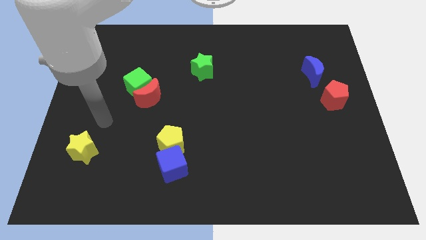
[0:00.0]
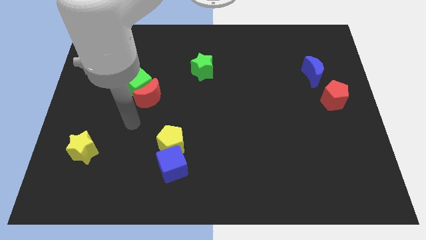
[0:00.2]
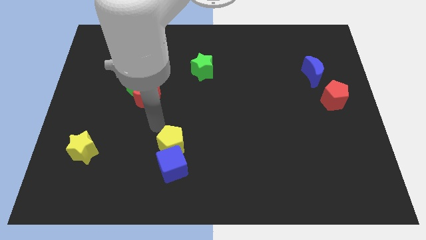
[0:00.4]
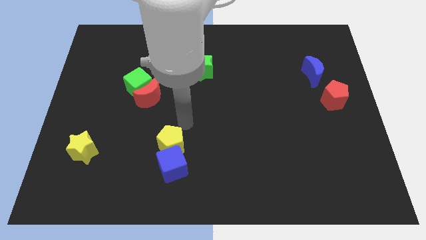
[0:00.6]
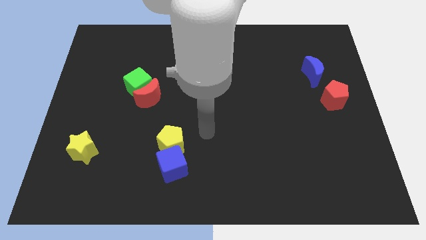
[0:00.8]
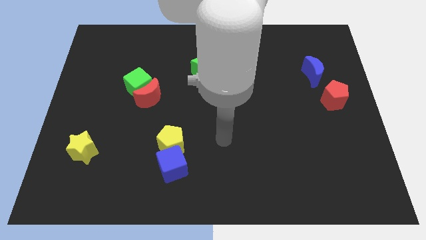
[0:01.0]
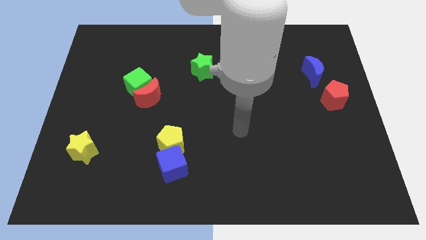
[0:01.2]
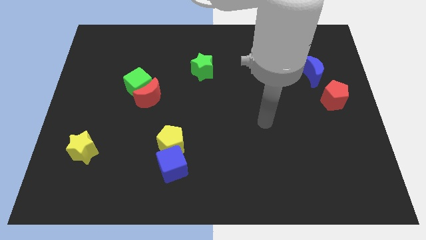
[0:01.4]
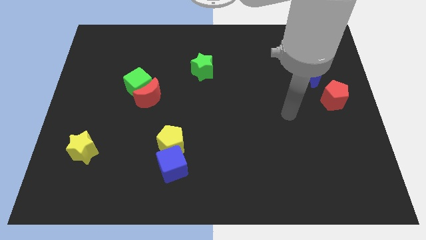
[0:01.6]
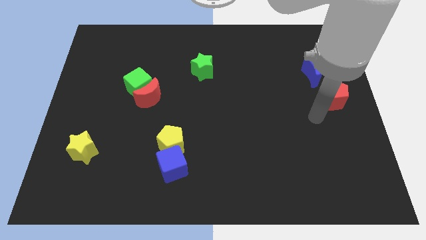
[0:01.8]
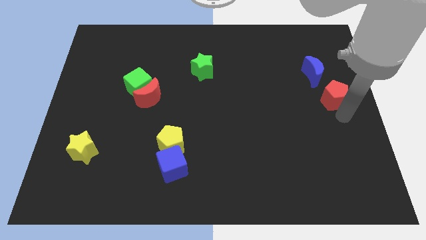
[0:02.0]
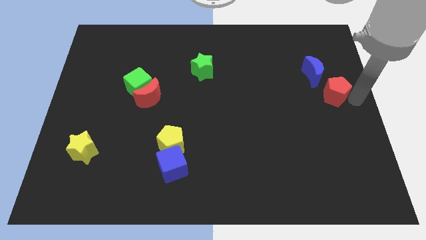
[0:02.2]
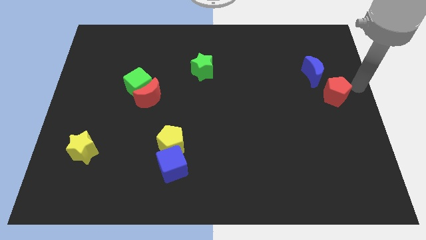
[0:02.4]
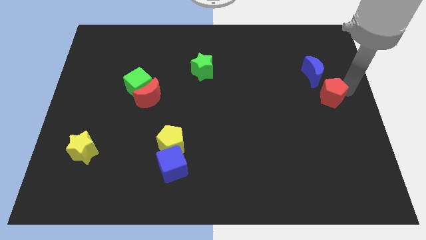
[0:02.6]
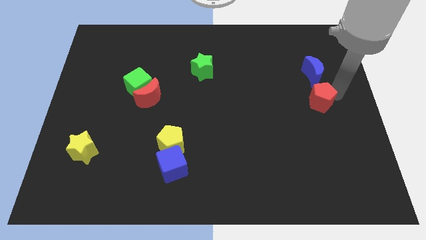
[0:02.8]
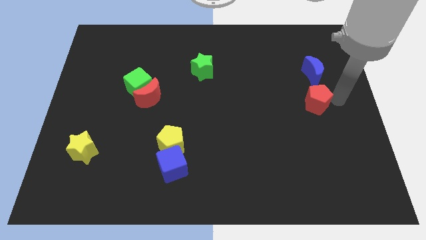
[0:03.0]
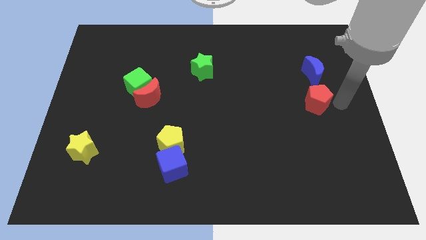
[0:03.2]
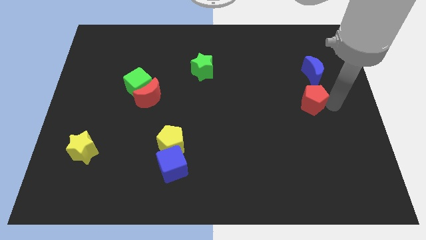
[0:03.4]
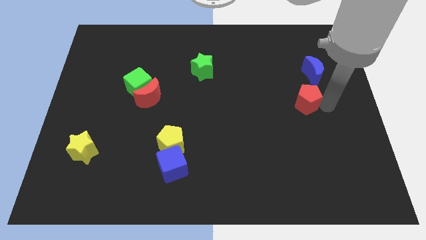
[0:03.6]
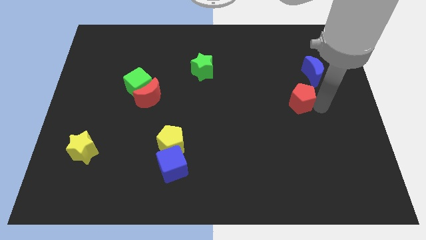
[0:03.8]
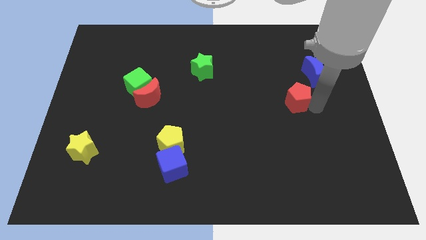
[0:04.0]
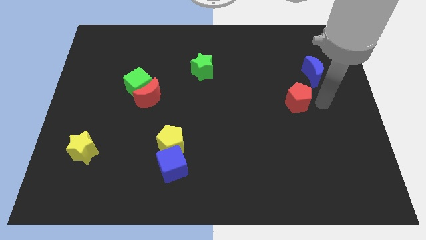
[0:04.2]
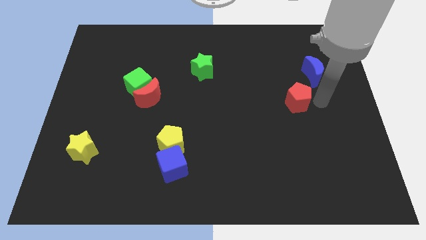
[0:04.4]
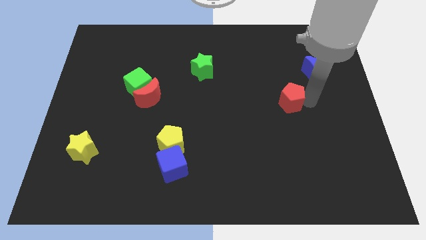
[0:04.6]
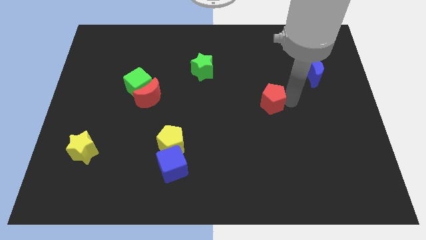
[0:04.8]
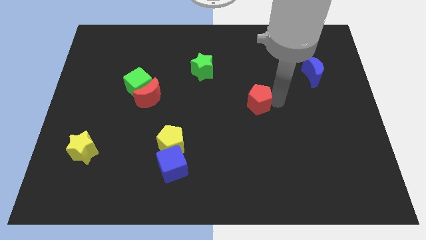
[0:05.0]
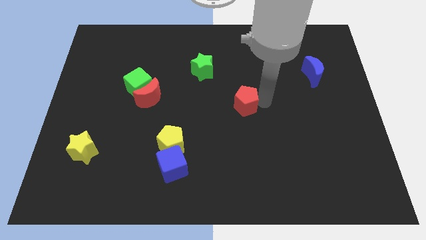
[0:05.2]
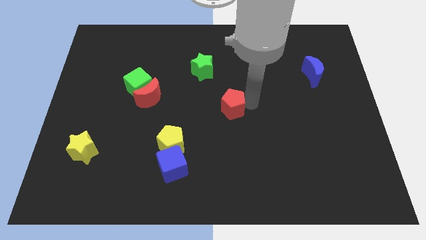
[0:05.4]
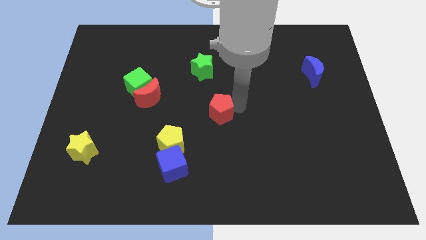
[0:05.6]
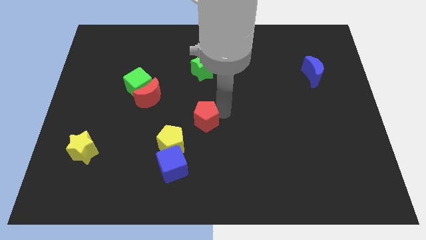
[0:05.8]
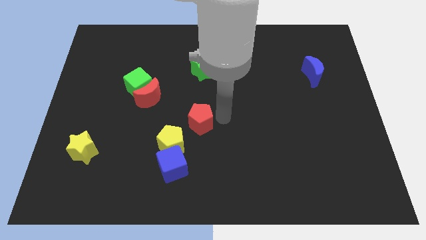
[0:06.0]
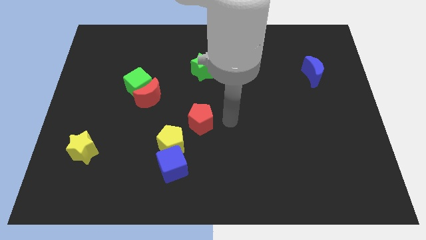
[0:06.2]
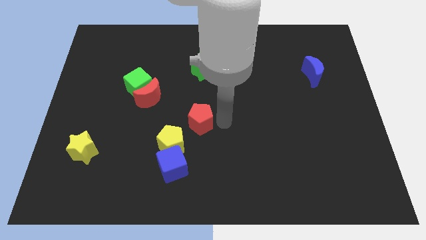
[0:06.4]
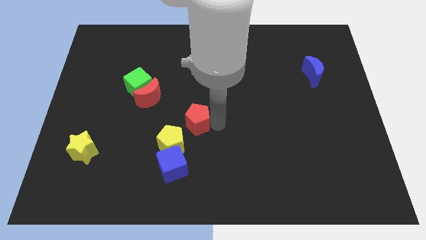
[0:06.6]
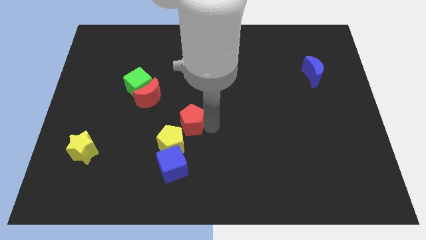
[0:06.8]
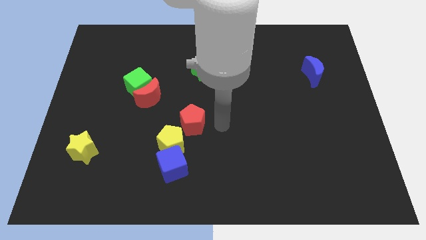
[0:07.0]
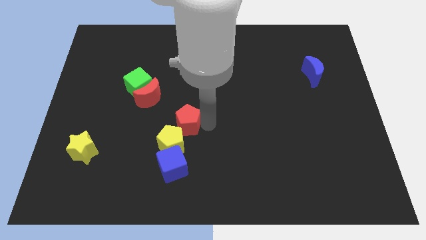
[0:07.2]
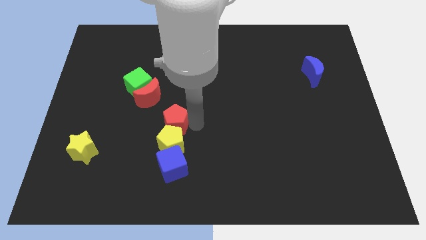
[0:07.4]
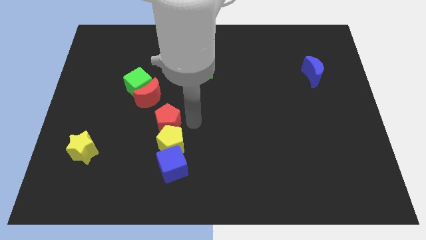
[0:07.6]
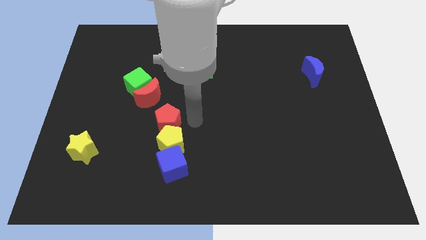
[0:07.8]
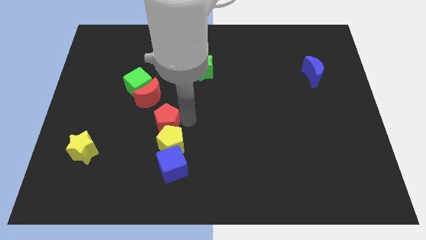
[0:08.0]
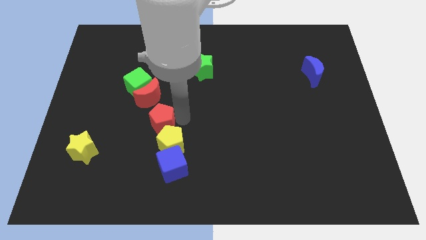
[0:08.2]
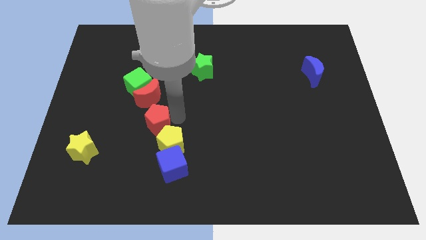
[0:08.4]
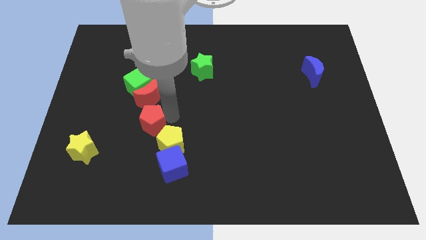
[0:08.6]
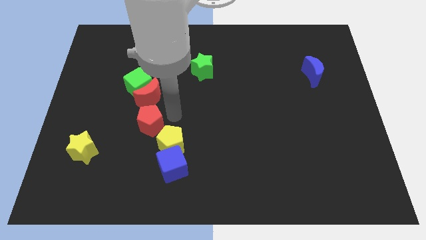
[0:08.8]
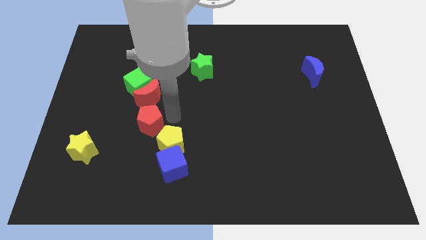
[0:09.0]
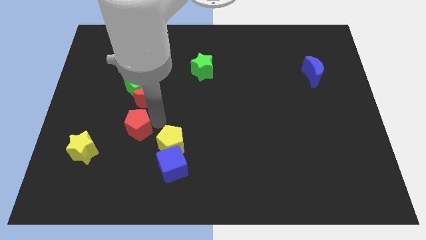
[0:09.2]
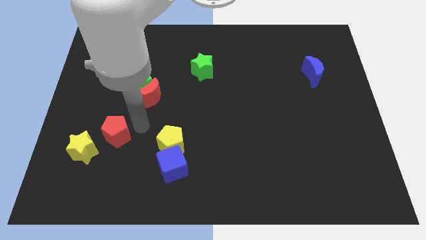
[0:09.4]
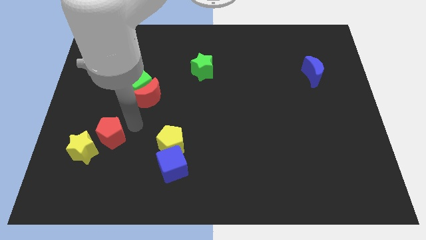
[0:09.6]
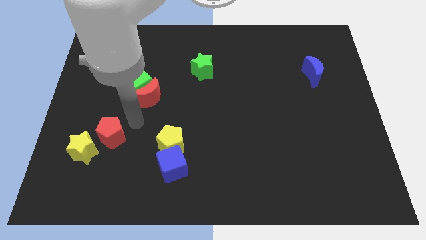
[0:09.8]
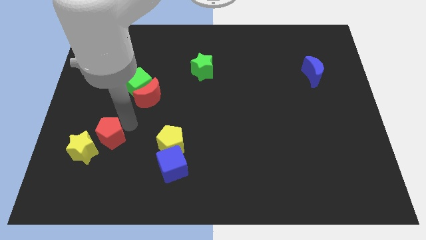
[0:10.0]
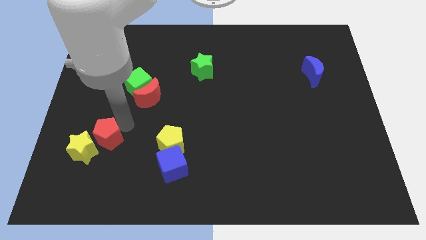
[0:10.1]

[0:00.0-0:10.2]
slide the red pentagon to the yellow star

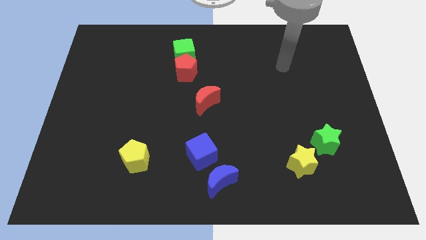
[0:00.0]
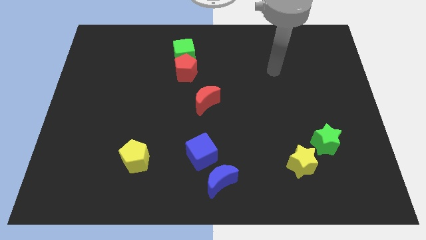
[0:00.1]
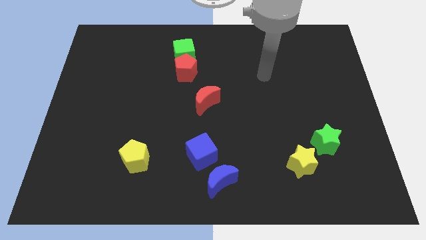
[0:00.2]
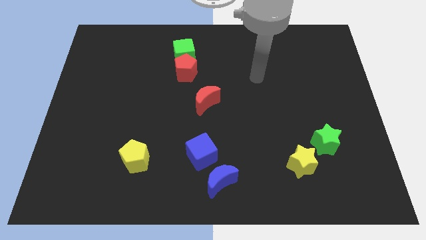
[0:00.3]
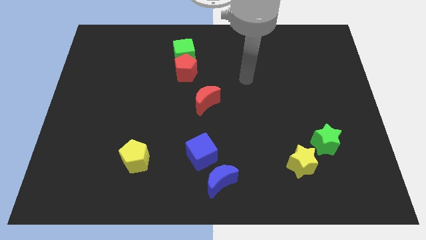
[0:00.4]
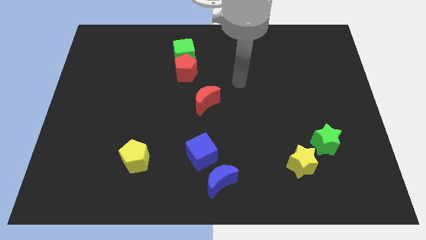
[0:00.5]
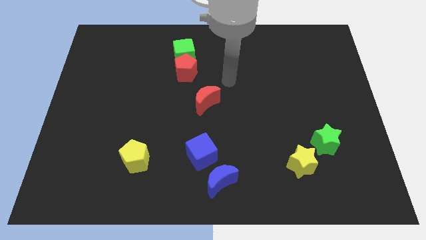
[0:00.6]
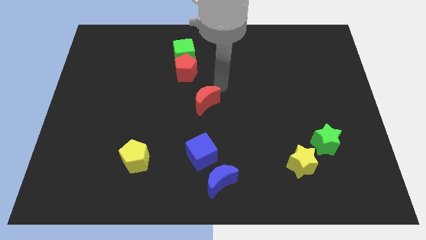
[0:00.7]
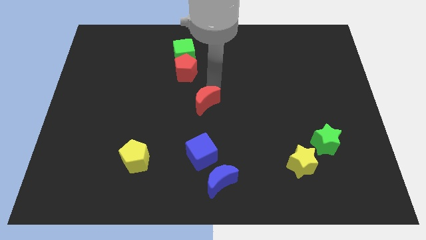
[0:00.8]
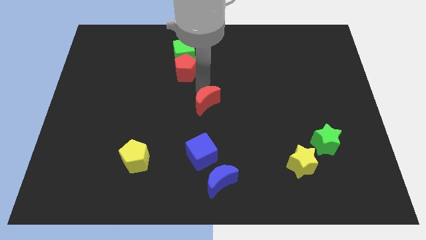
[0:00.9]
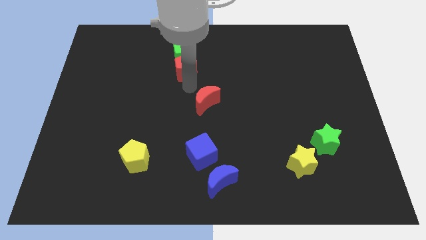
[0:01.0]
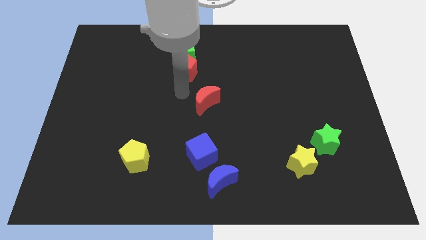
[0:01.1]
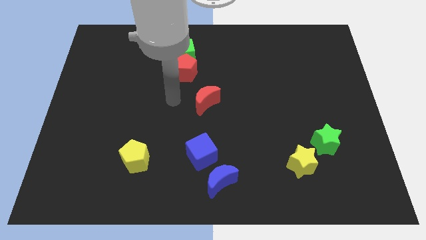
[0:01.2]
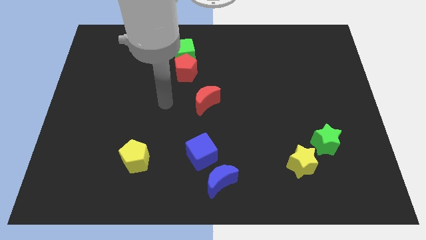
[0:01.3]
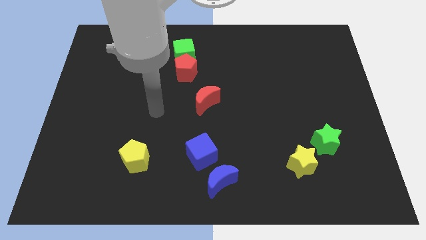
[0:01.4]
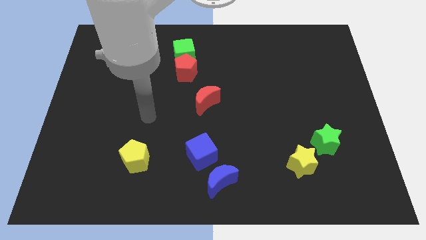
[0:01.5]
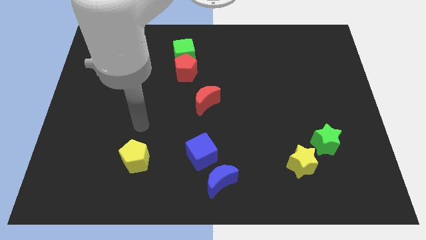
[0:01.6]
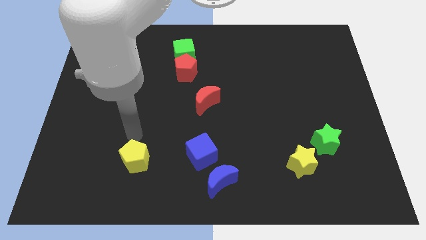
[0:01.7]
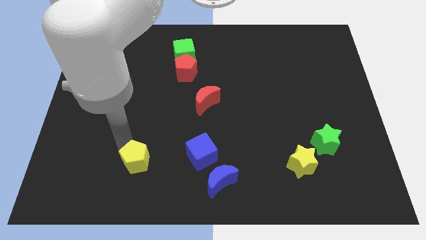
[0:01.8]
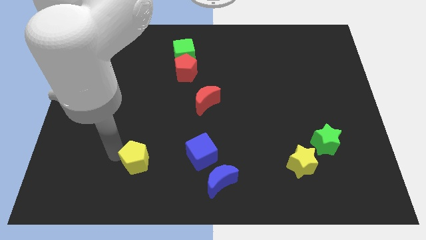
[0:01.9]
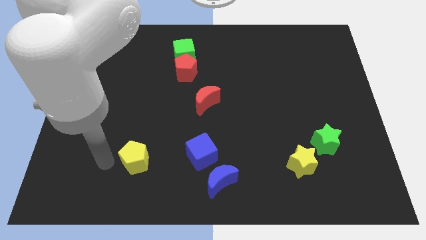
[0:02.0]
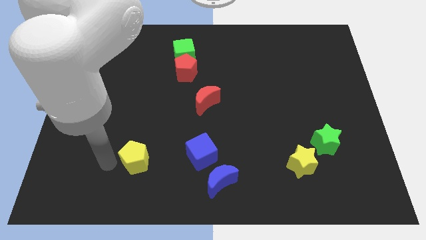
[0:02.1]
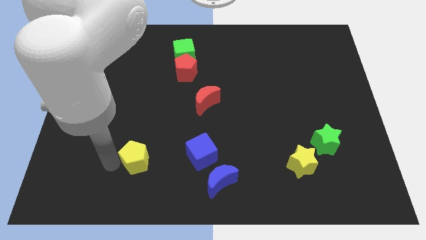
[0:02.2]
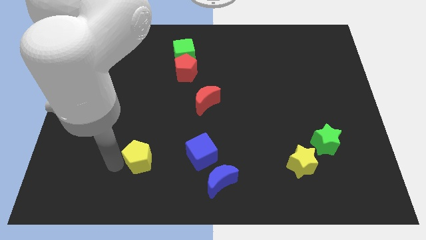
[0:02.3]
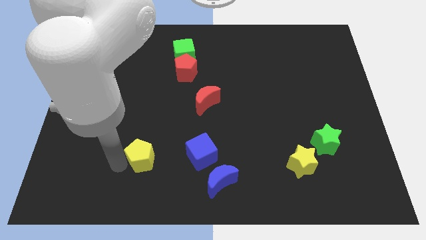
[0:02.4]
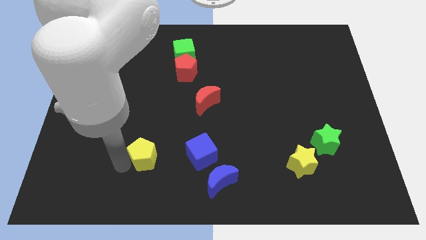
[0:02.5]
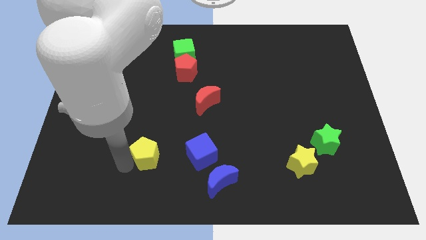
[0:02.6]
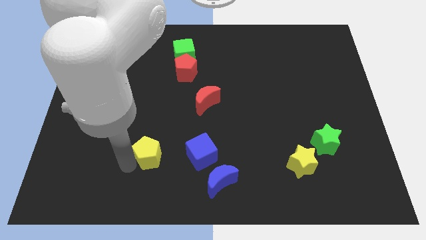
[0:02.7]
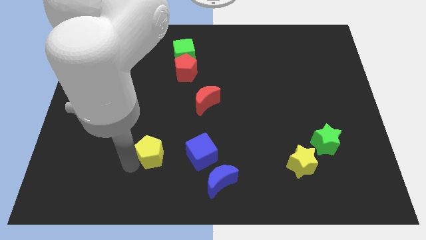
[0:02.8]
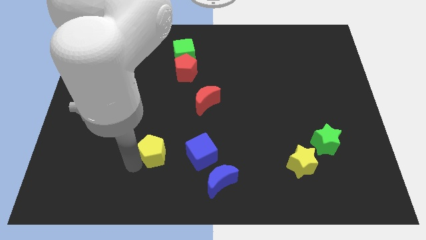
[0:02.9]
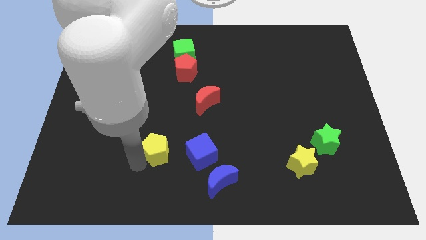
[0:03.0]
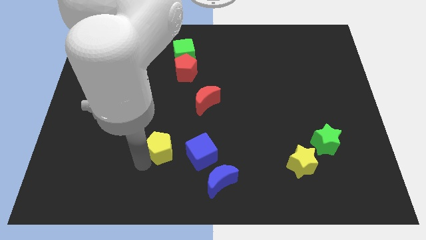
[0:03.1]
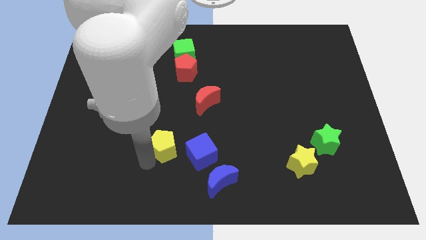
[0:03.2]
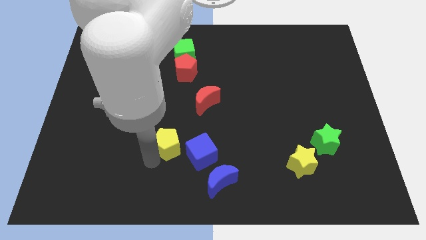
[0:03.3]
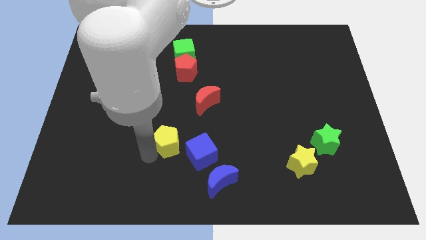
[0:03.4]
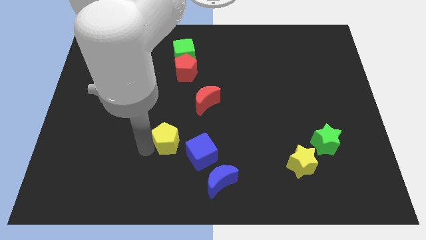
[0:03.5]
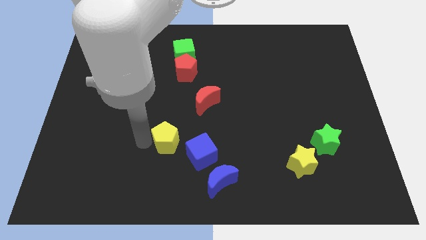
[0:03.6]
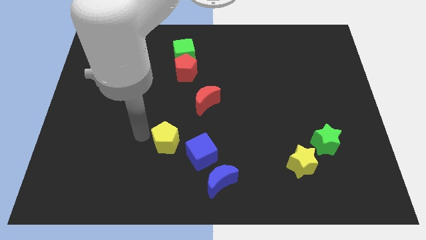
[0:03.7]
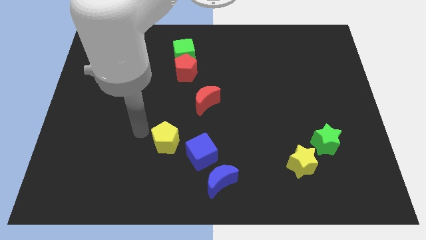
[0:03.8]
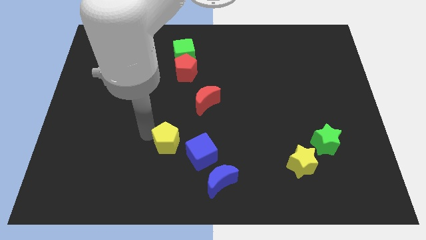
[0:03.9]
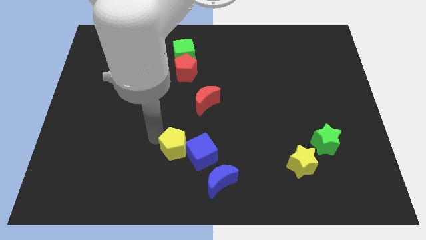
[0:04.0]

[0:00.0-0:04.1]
slide the yellow pentagon to the blue cube
